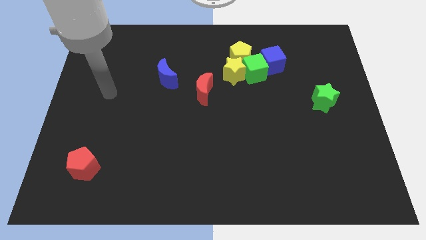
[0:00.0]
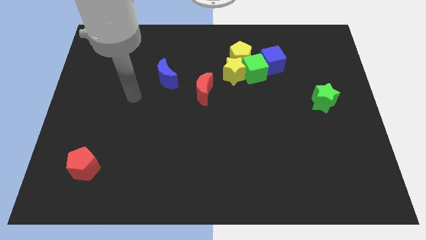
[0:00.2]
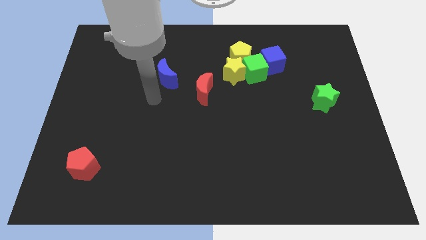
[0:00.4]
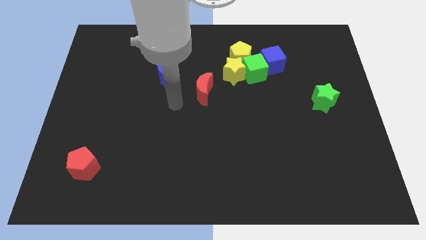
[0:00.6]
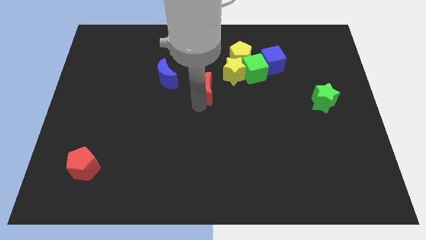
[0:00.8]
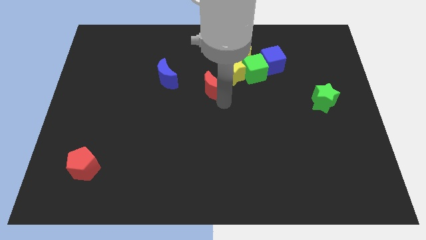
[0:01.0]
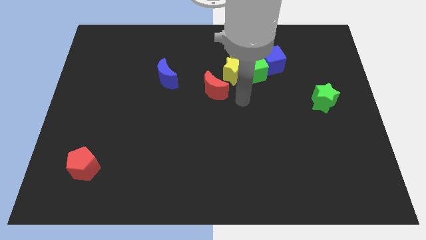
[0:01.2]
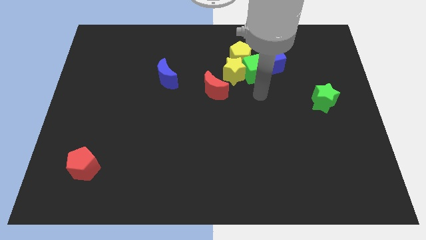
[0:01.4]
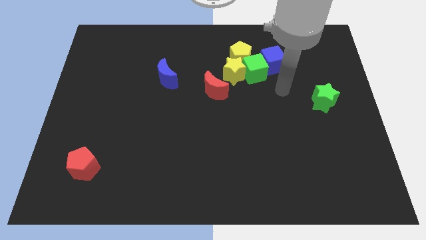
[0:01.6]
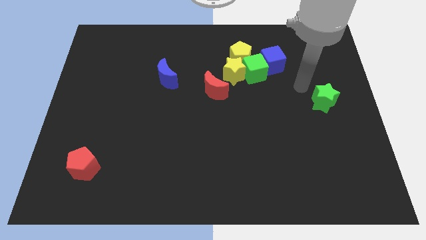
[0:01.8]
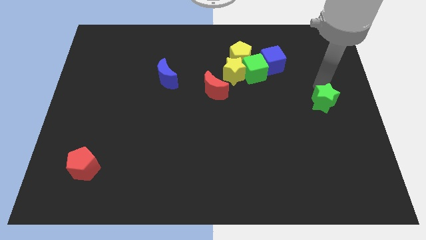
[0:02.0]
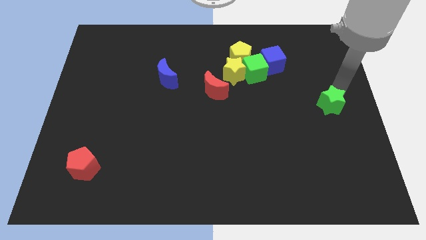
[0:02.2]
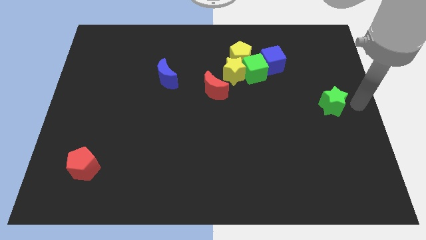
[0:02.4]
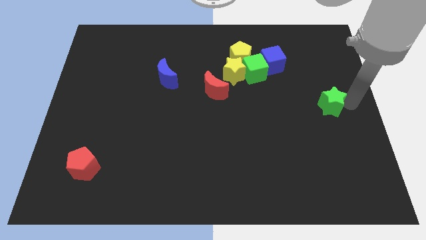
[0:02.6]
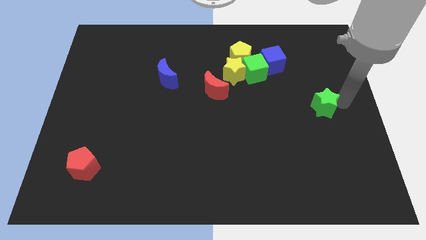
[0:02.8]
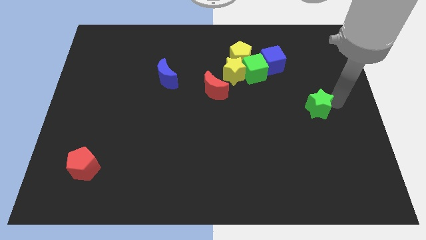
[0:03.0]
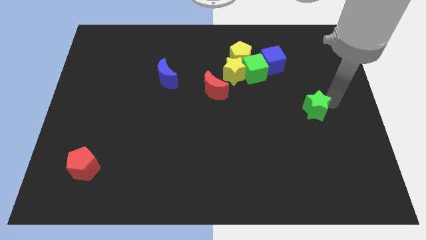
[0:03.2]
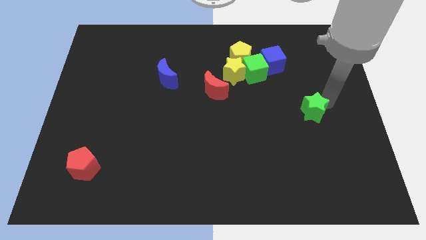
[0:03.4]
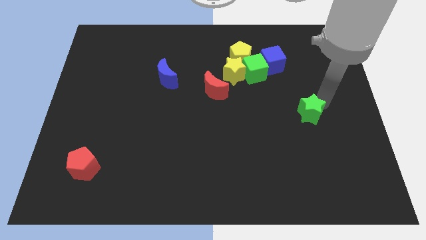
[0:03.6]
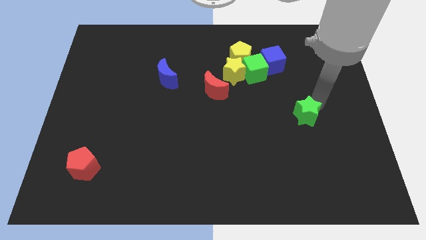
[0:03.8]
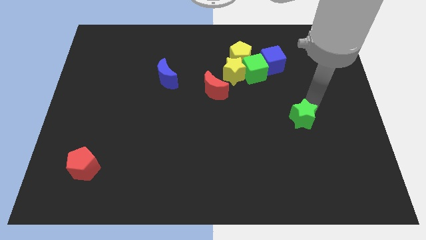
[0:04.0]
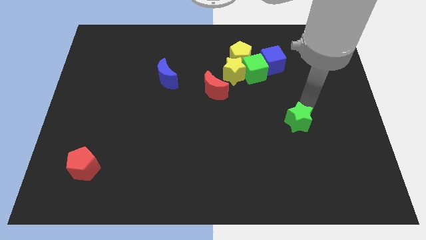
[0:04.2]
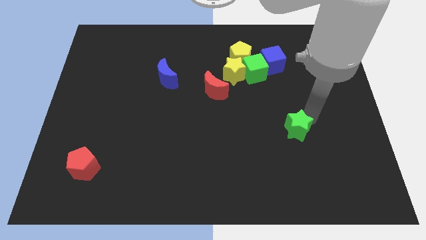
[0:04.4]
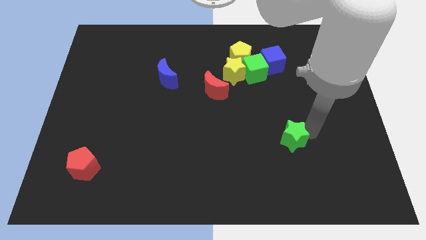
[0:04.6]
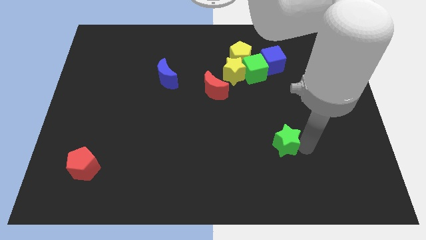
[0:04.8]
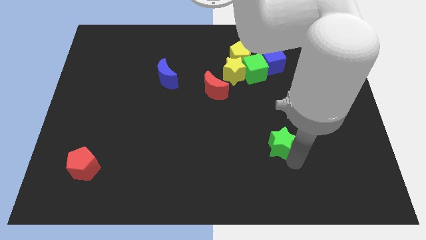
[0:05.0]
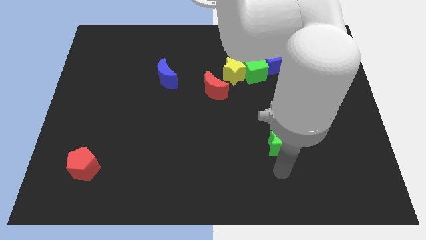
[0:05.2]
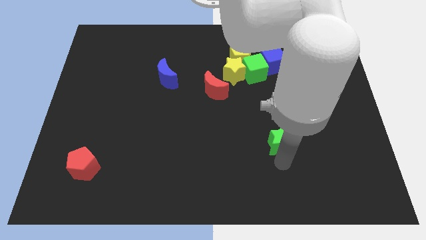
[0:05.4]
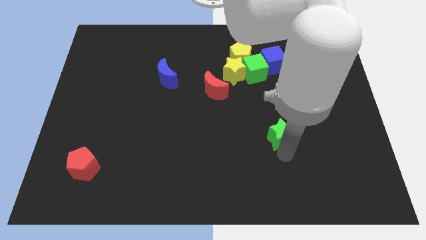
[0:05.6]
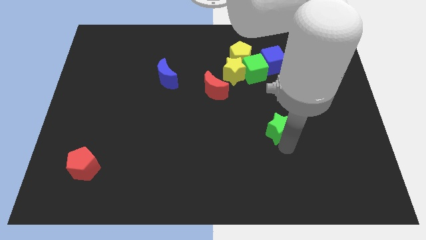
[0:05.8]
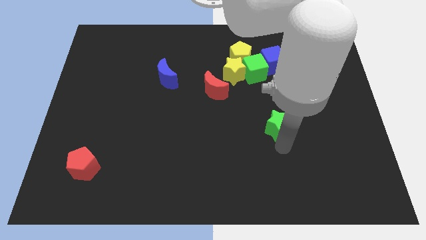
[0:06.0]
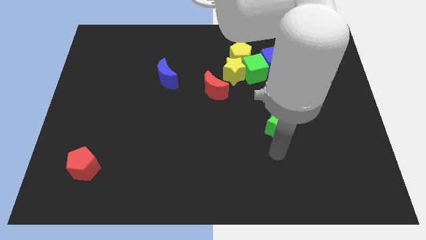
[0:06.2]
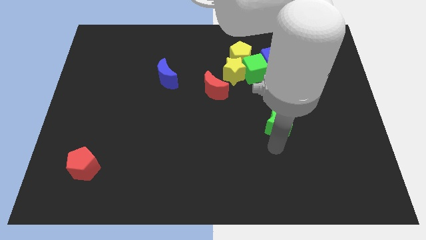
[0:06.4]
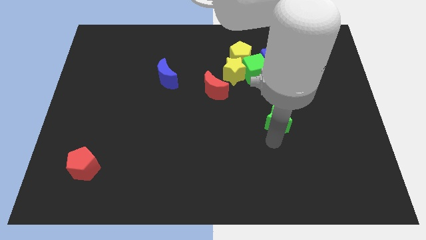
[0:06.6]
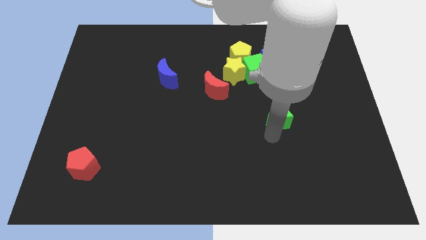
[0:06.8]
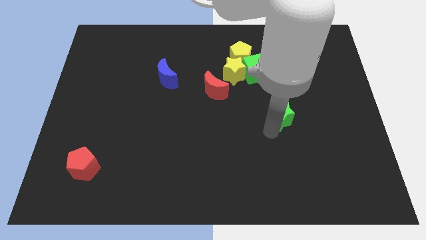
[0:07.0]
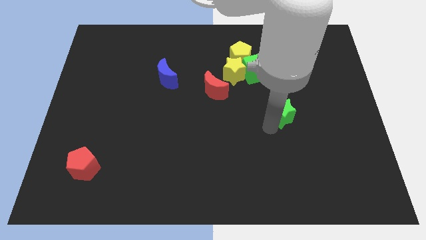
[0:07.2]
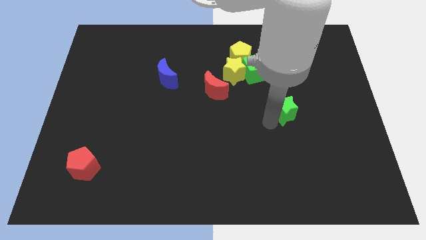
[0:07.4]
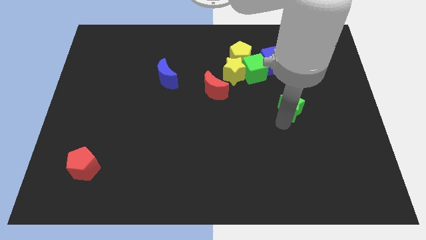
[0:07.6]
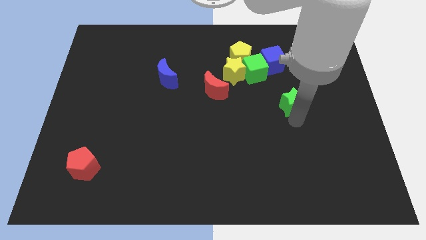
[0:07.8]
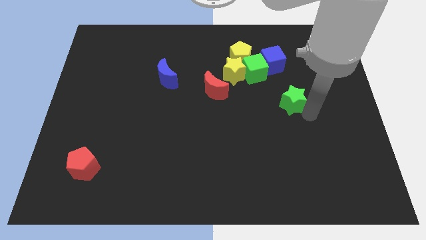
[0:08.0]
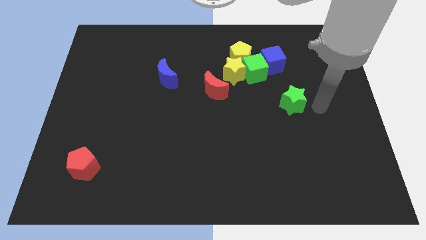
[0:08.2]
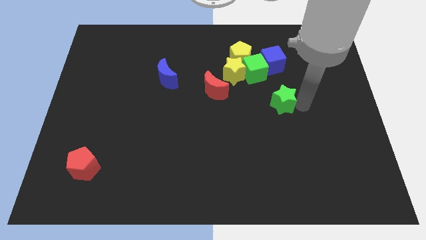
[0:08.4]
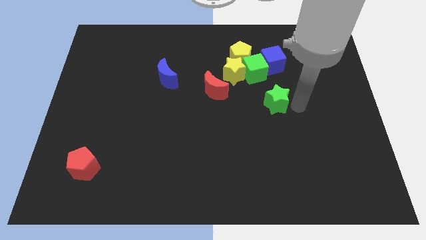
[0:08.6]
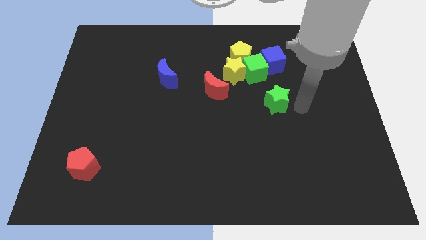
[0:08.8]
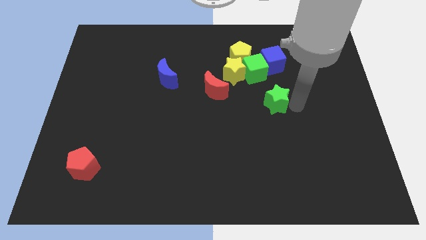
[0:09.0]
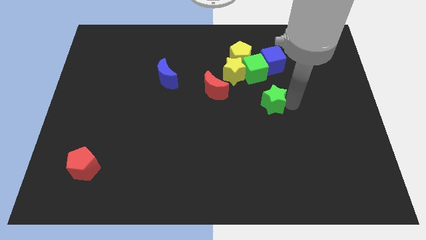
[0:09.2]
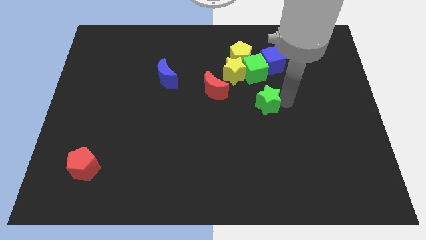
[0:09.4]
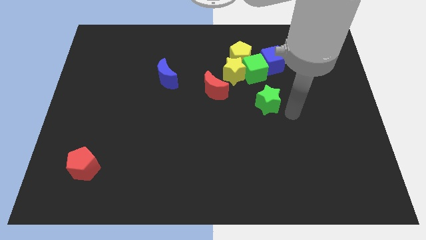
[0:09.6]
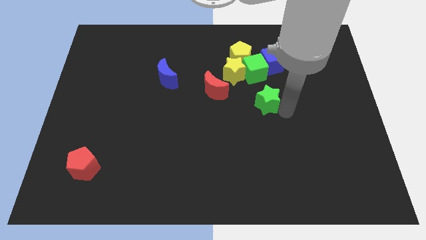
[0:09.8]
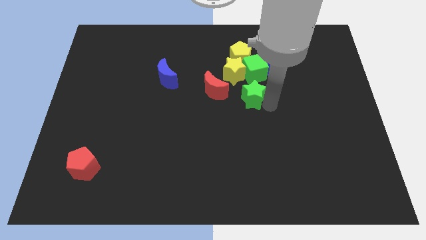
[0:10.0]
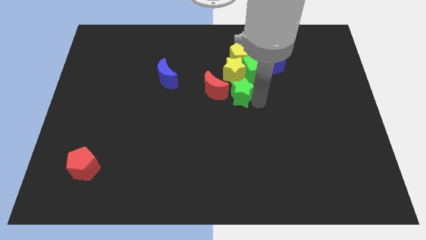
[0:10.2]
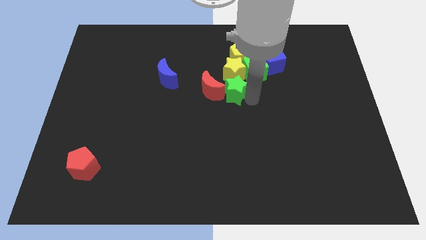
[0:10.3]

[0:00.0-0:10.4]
slide the green star towards the red moon
